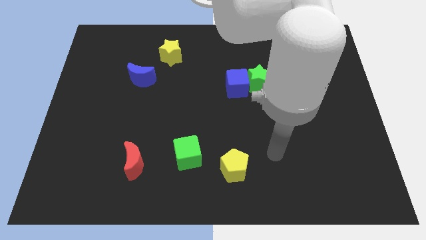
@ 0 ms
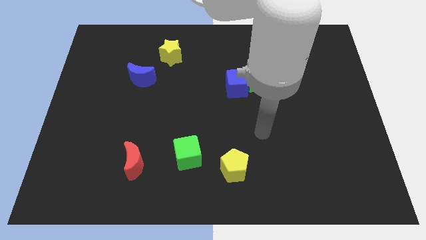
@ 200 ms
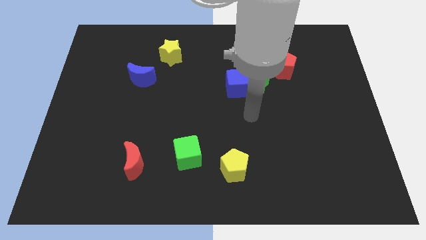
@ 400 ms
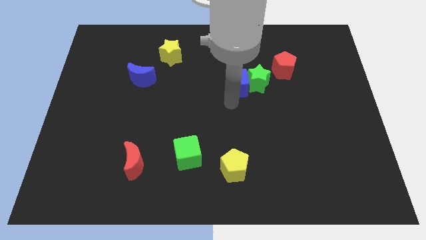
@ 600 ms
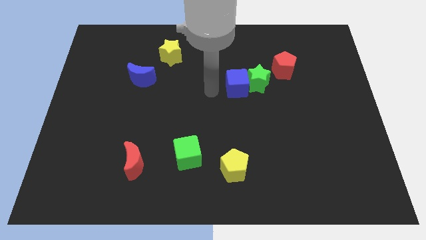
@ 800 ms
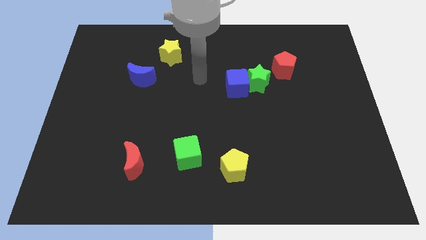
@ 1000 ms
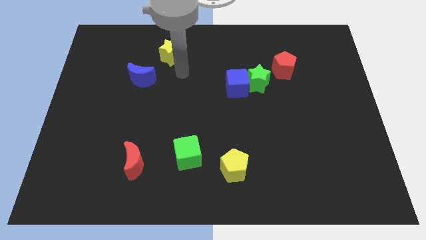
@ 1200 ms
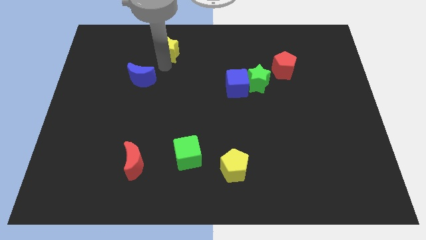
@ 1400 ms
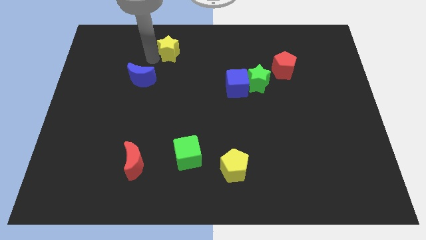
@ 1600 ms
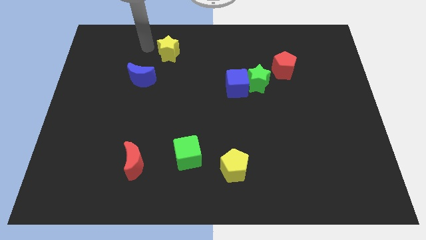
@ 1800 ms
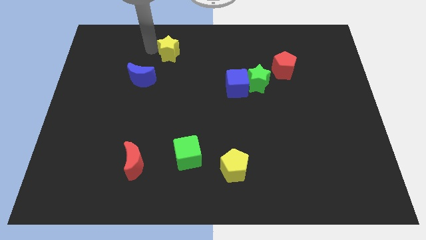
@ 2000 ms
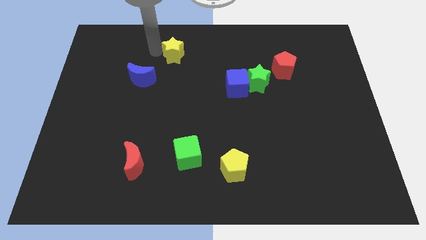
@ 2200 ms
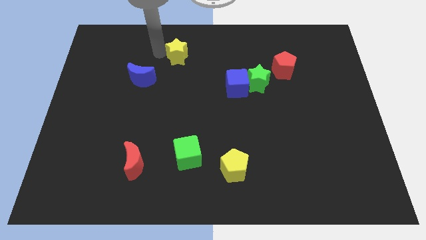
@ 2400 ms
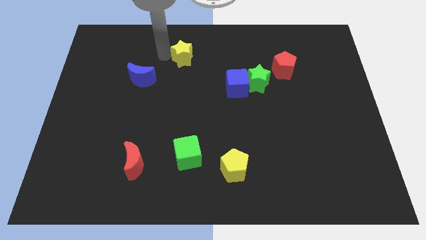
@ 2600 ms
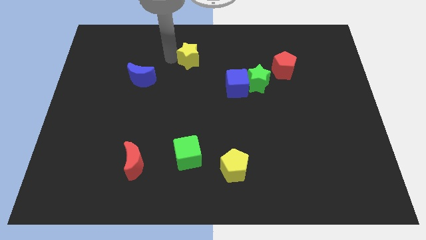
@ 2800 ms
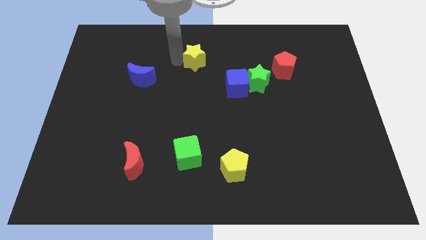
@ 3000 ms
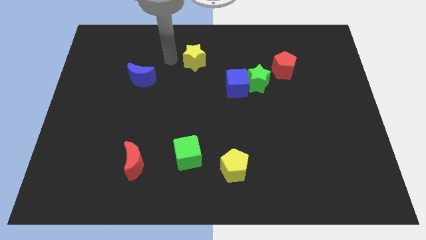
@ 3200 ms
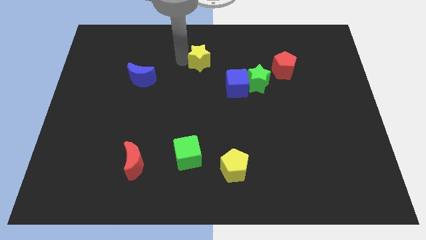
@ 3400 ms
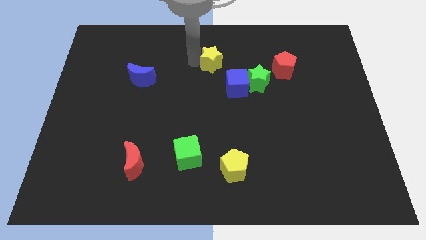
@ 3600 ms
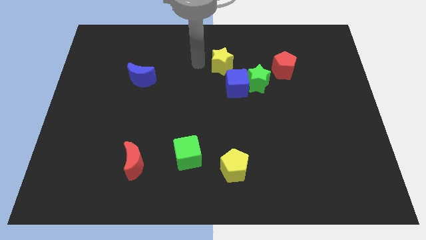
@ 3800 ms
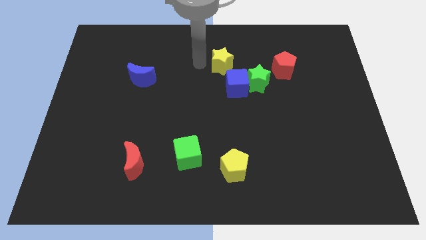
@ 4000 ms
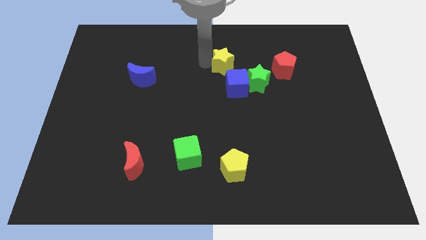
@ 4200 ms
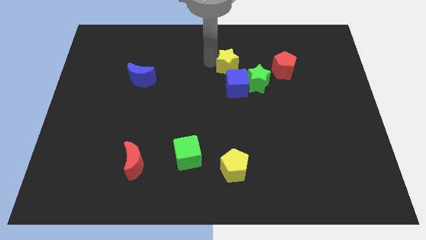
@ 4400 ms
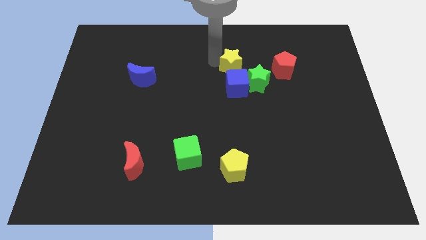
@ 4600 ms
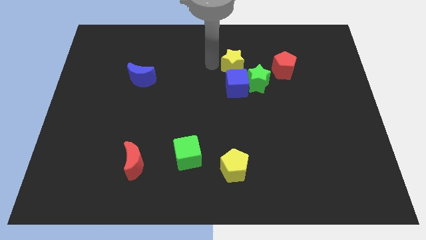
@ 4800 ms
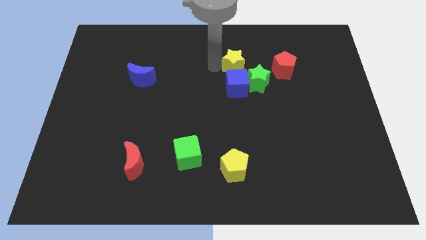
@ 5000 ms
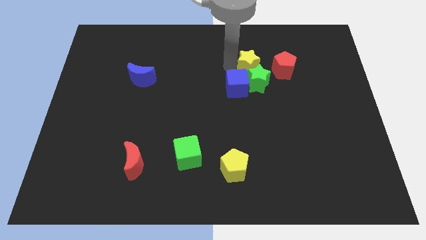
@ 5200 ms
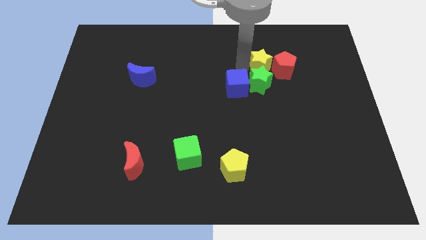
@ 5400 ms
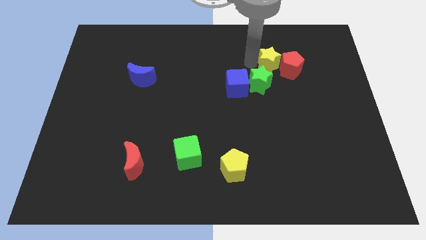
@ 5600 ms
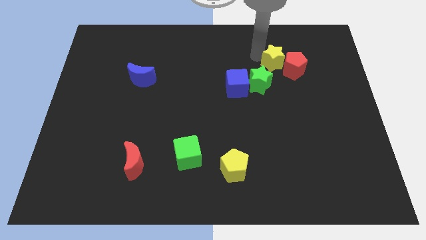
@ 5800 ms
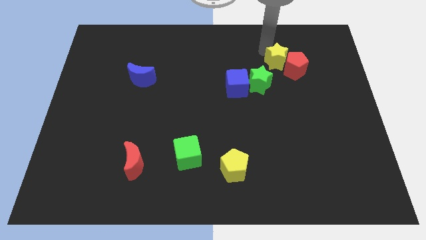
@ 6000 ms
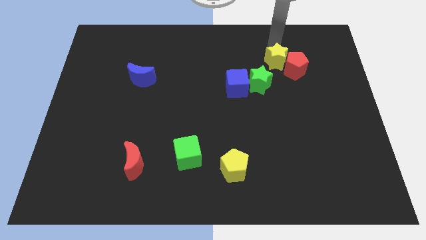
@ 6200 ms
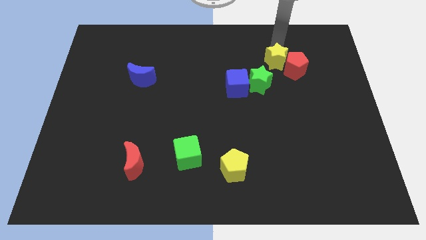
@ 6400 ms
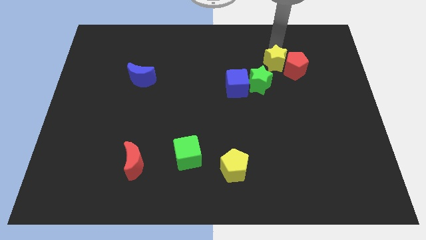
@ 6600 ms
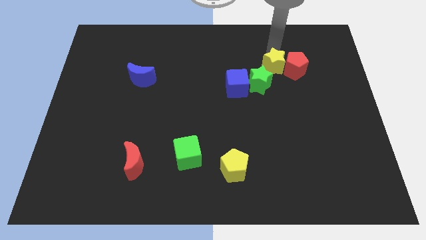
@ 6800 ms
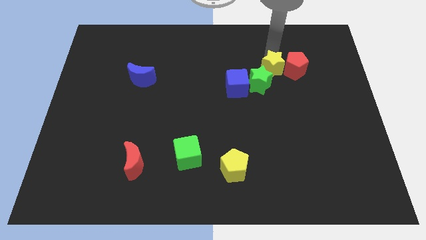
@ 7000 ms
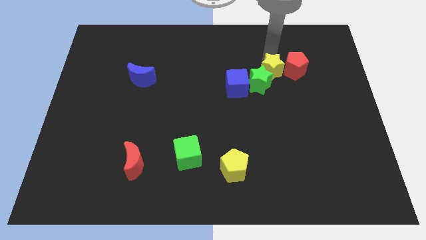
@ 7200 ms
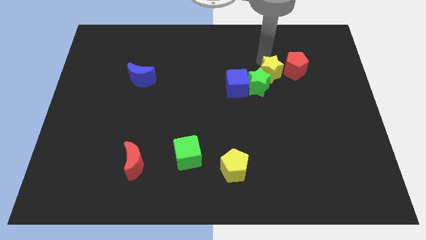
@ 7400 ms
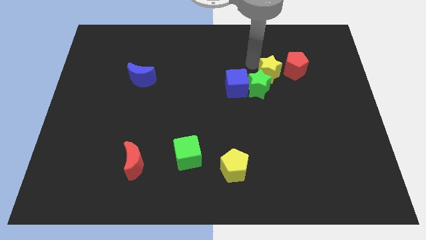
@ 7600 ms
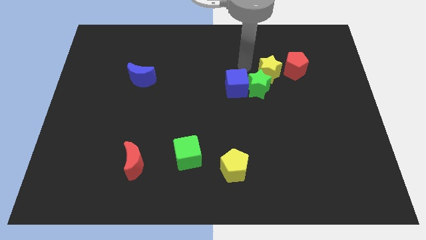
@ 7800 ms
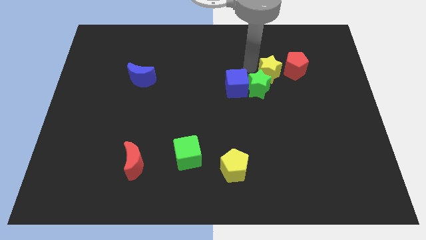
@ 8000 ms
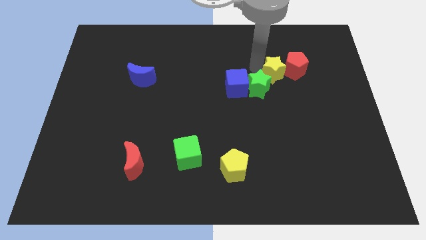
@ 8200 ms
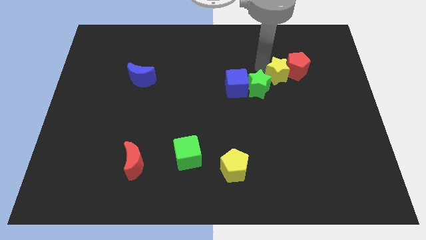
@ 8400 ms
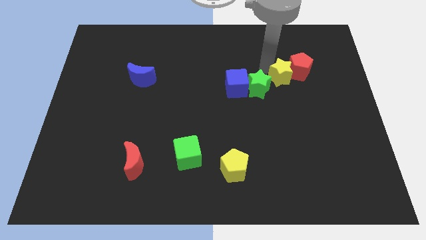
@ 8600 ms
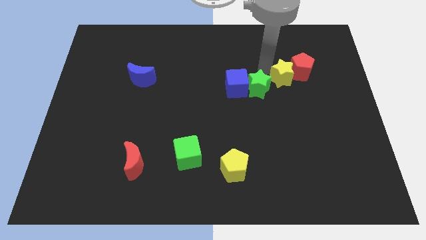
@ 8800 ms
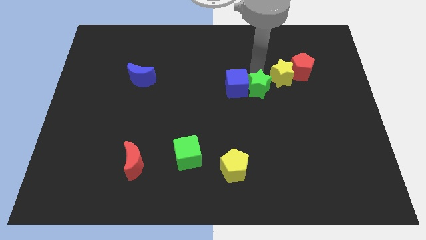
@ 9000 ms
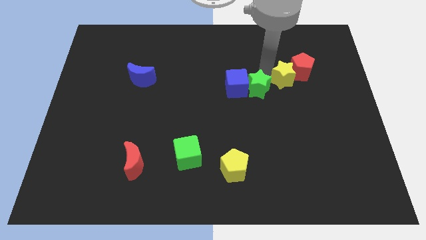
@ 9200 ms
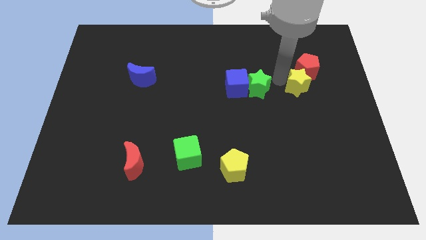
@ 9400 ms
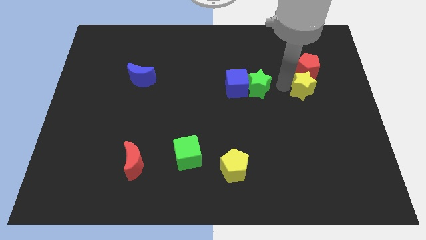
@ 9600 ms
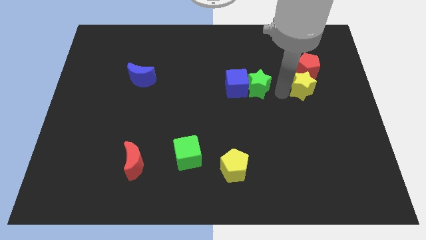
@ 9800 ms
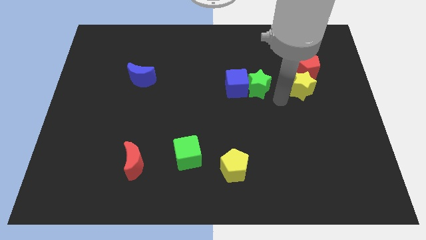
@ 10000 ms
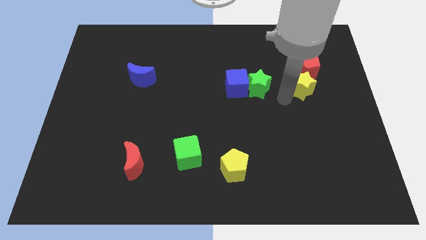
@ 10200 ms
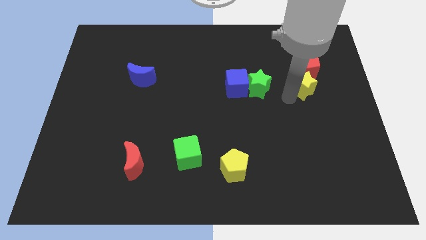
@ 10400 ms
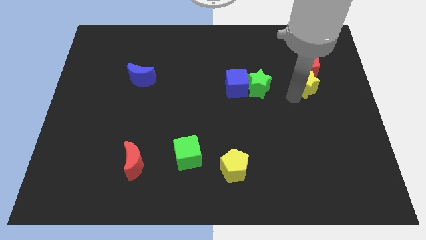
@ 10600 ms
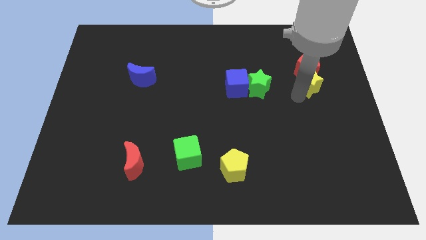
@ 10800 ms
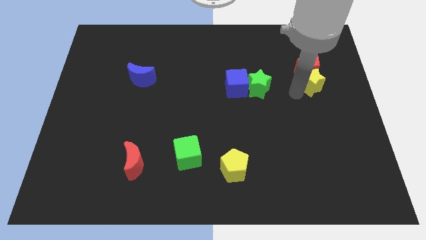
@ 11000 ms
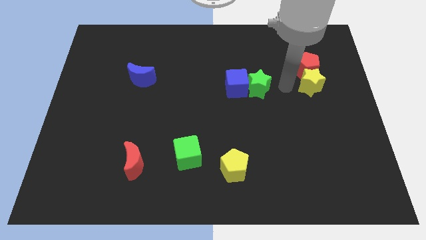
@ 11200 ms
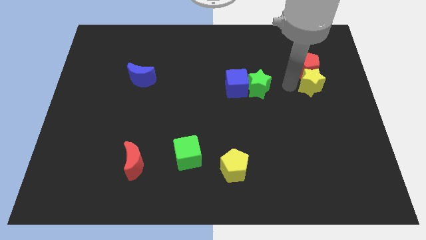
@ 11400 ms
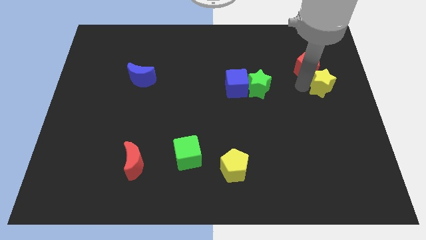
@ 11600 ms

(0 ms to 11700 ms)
slide the yellow star to the center right

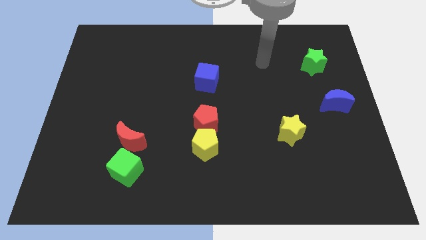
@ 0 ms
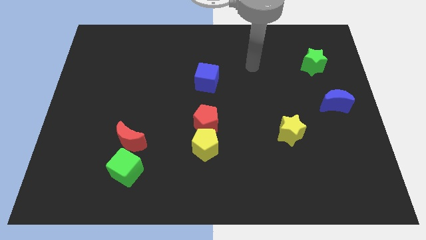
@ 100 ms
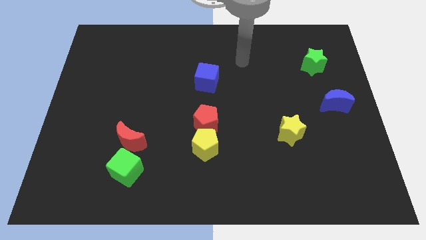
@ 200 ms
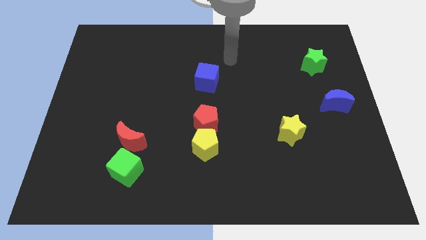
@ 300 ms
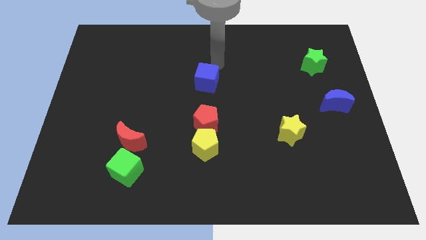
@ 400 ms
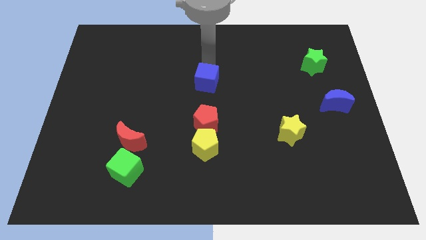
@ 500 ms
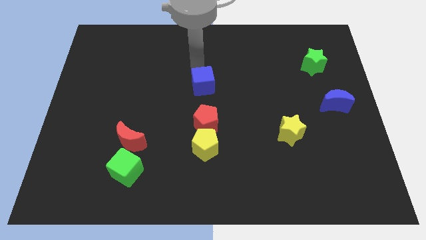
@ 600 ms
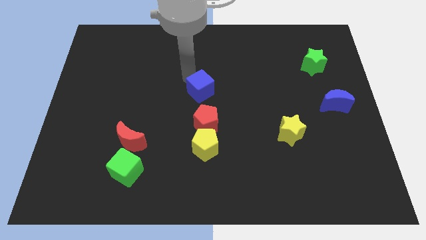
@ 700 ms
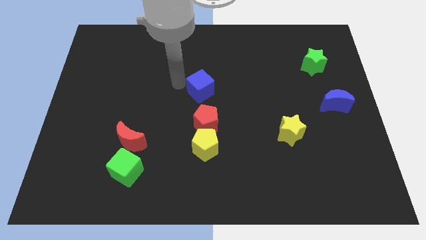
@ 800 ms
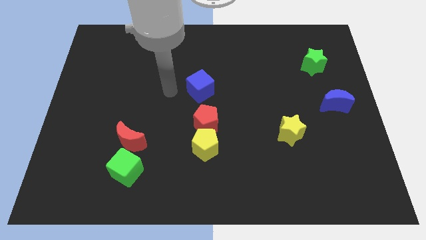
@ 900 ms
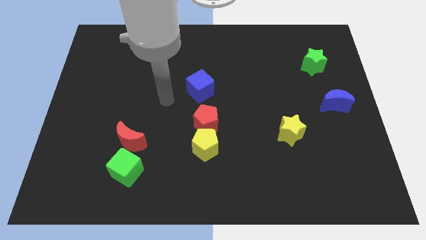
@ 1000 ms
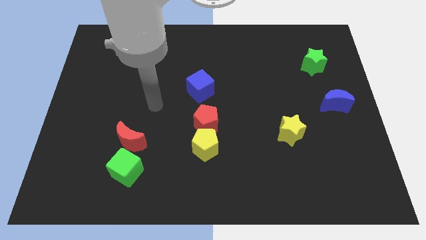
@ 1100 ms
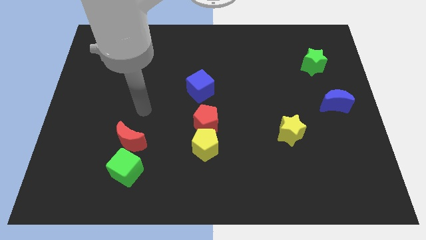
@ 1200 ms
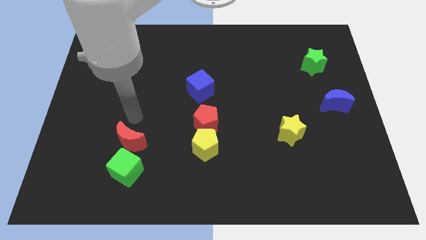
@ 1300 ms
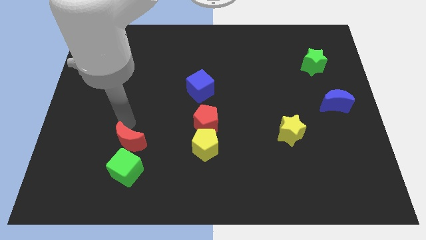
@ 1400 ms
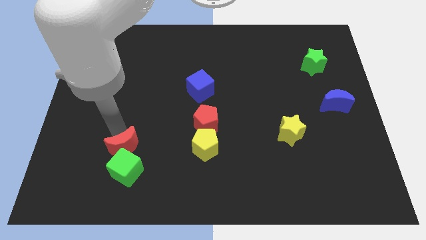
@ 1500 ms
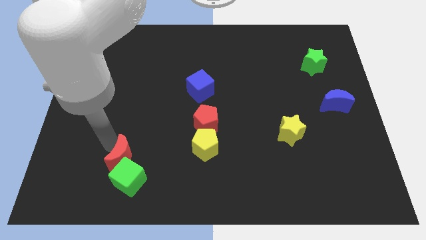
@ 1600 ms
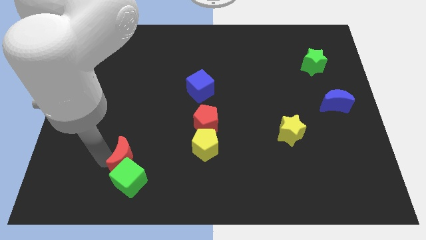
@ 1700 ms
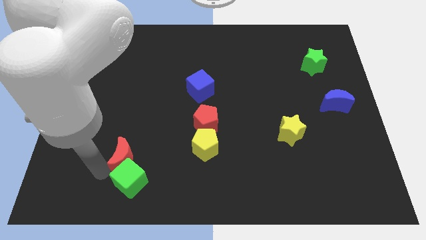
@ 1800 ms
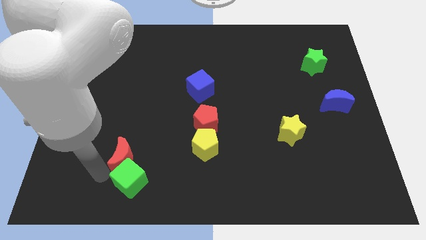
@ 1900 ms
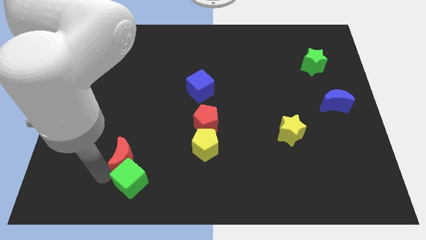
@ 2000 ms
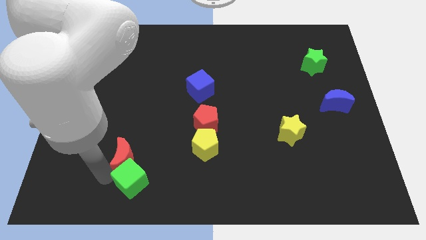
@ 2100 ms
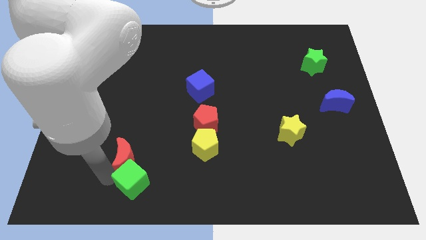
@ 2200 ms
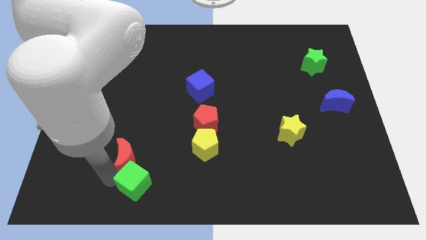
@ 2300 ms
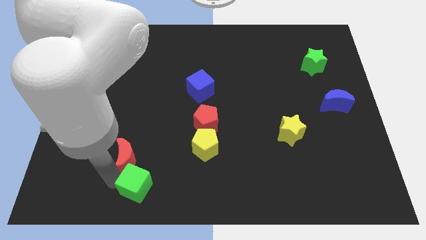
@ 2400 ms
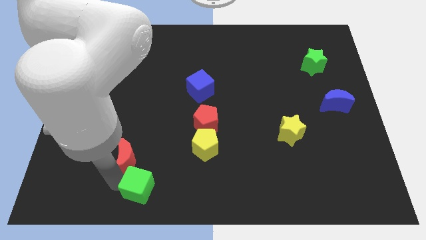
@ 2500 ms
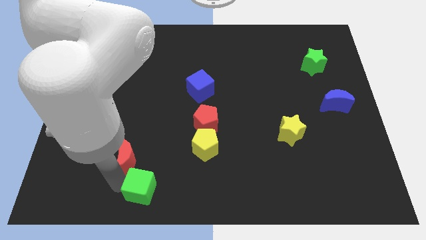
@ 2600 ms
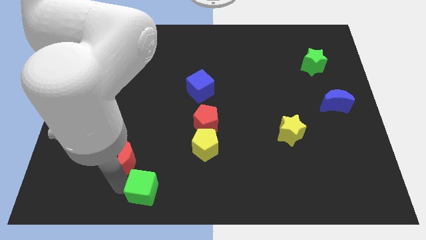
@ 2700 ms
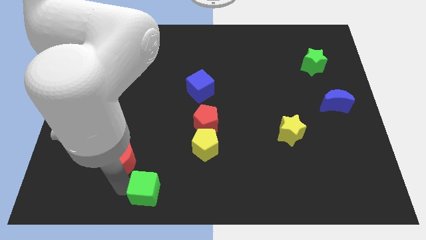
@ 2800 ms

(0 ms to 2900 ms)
push the green cube to the bottom
